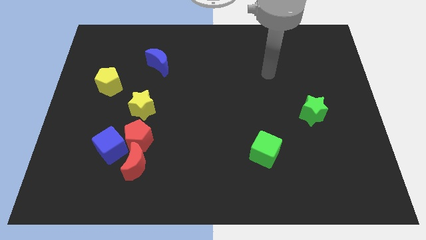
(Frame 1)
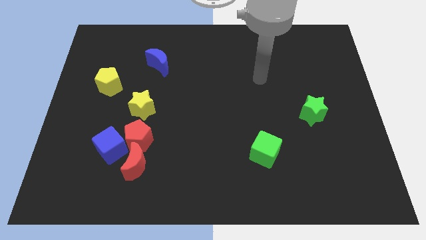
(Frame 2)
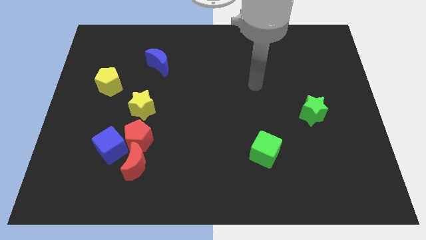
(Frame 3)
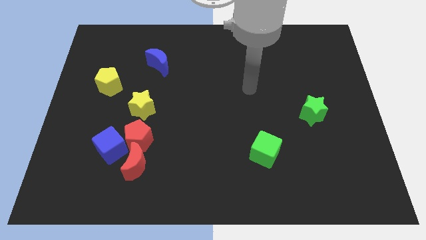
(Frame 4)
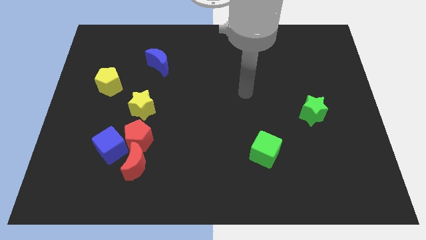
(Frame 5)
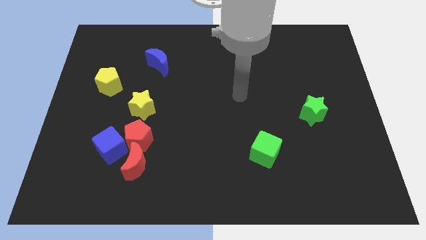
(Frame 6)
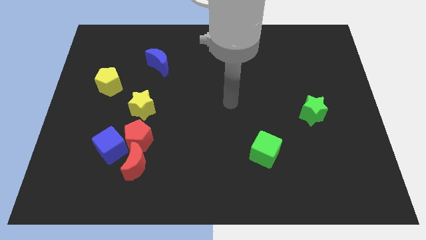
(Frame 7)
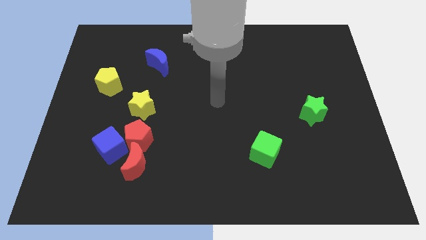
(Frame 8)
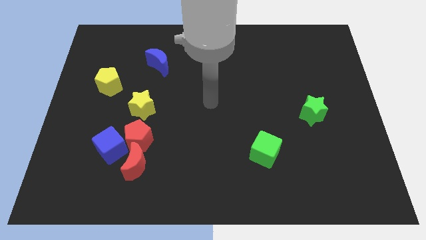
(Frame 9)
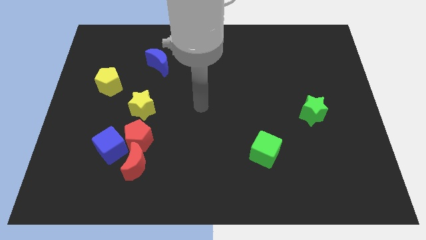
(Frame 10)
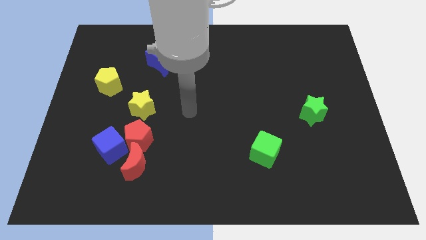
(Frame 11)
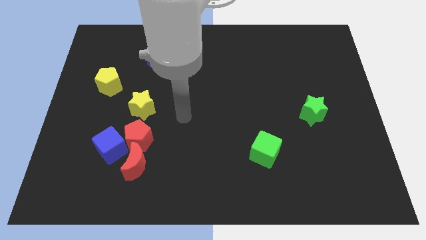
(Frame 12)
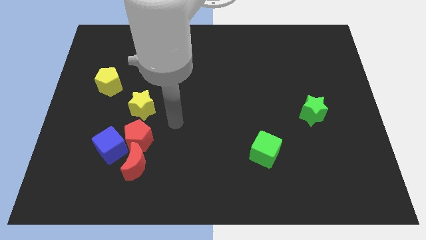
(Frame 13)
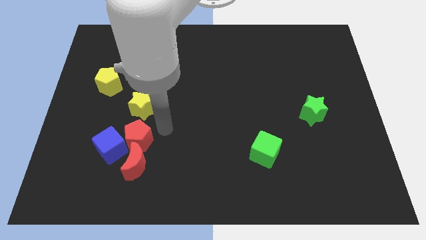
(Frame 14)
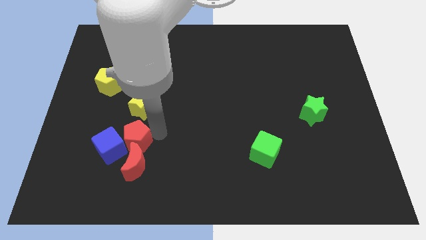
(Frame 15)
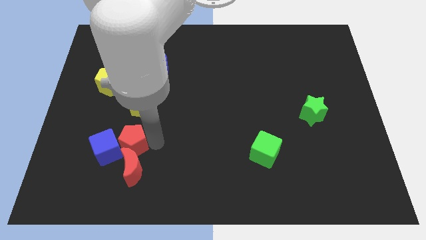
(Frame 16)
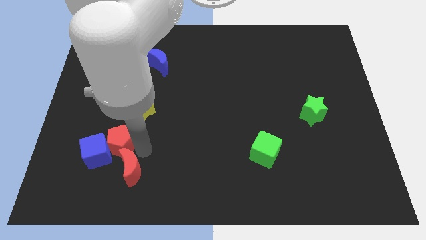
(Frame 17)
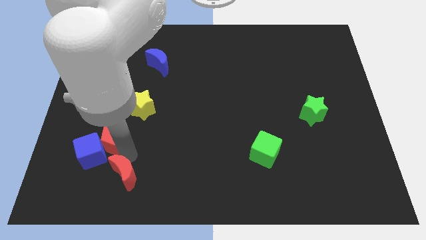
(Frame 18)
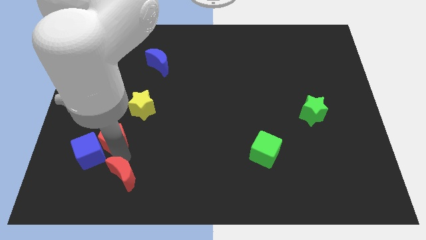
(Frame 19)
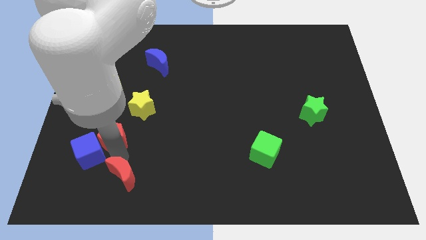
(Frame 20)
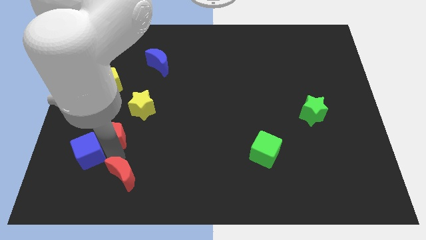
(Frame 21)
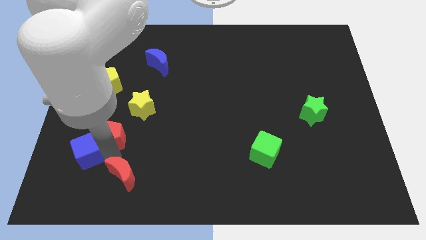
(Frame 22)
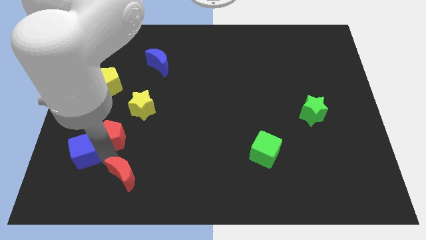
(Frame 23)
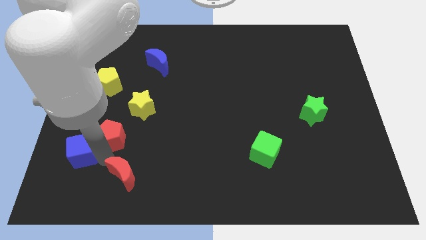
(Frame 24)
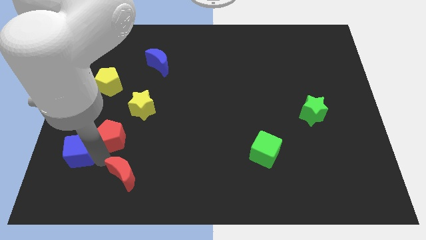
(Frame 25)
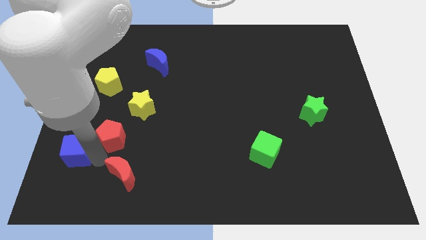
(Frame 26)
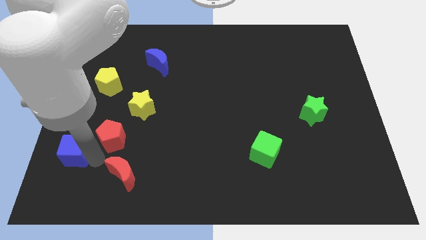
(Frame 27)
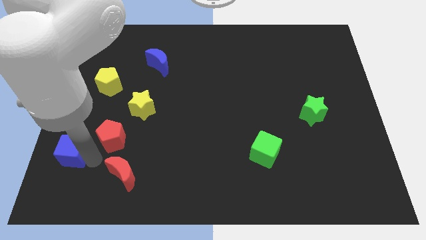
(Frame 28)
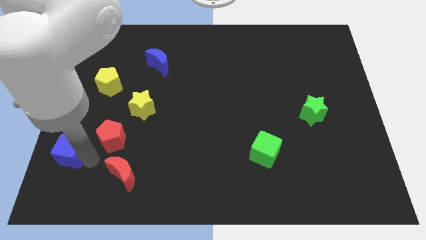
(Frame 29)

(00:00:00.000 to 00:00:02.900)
move the blue cube away from the red pentagon and red moon

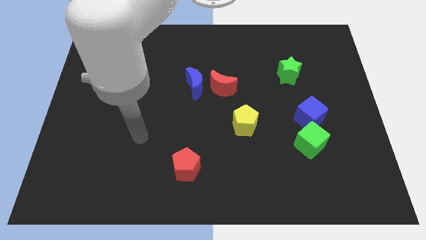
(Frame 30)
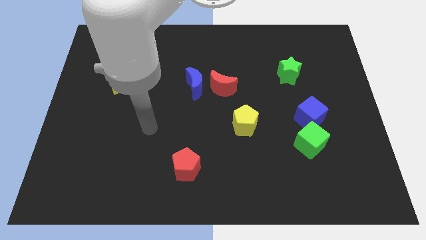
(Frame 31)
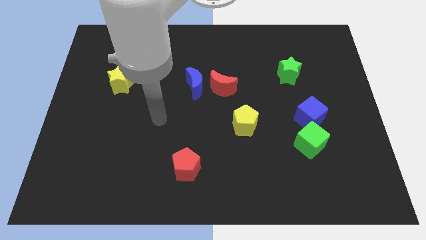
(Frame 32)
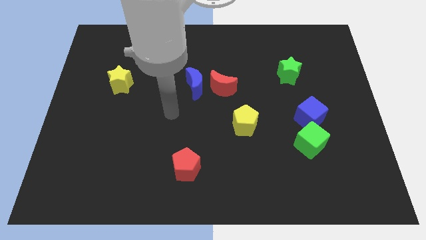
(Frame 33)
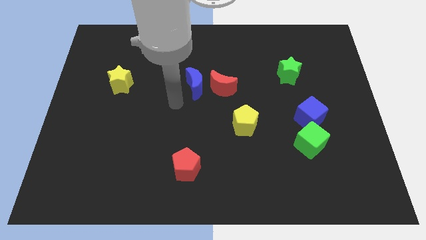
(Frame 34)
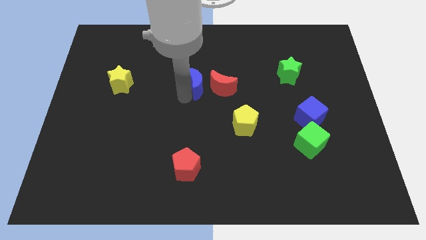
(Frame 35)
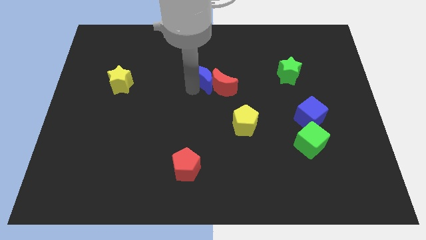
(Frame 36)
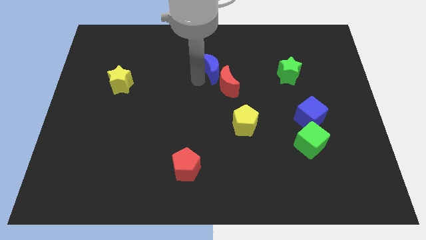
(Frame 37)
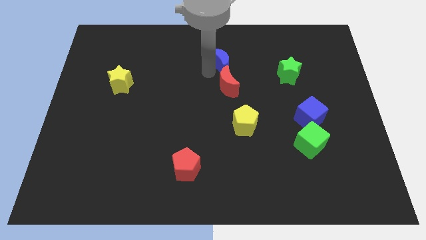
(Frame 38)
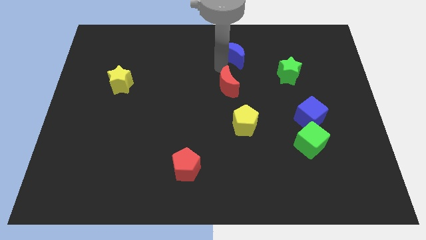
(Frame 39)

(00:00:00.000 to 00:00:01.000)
separate the red moon from the blue moon

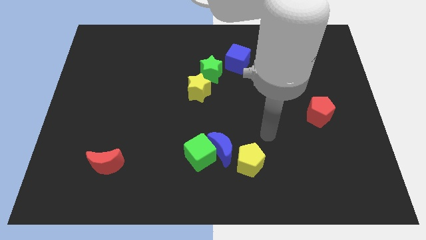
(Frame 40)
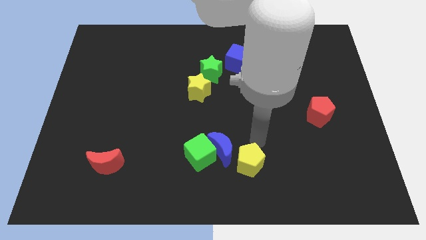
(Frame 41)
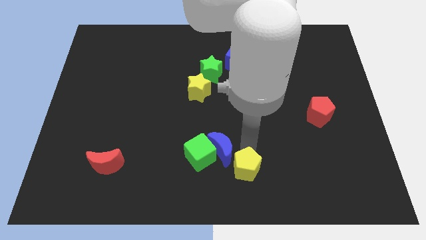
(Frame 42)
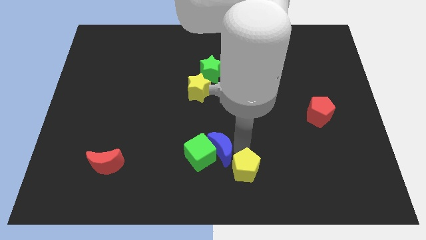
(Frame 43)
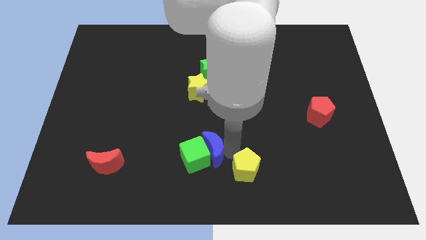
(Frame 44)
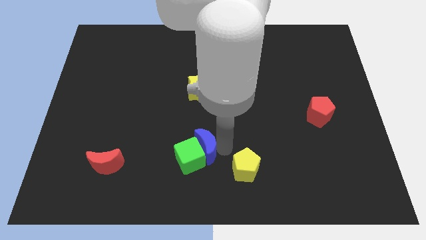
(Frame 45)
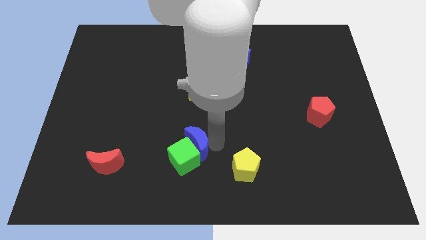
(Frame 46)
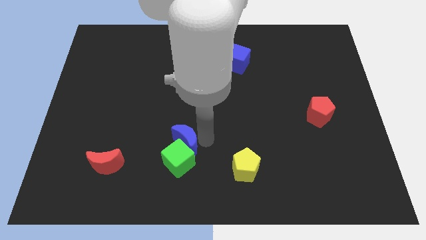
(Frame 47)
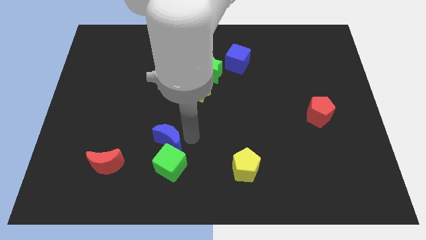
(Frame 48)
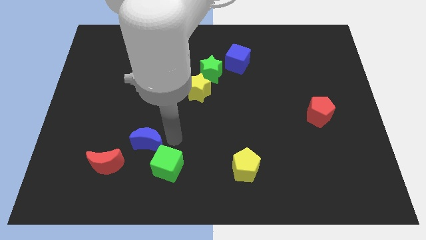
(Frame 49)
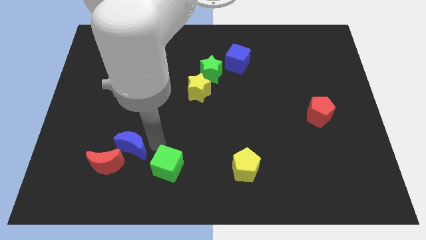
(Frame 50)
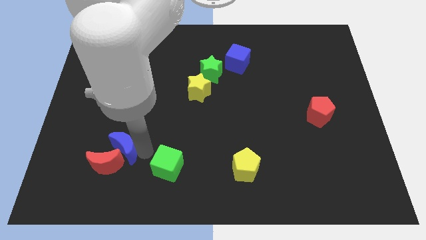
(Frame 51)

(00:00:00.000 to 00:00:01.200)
separate the green cube from the blue moon

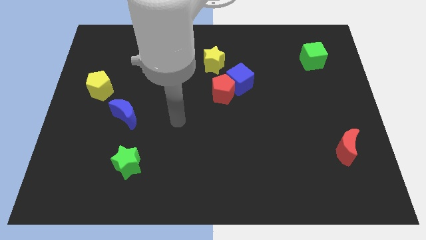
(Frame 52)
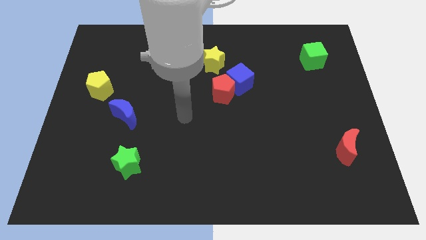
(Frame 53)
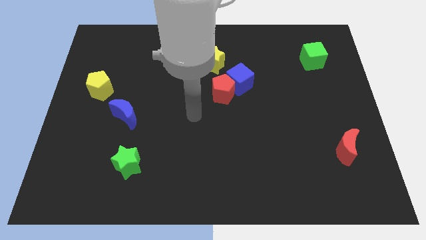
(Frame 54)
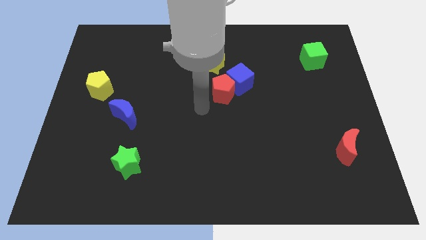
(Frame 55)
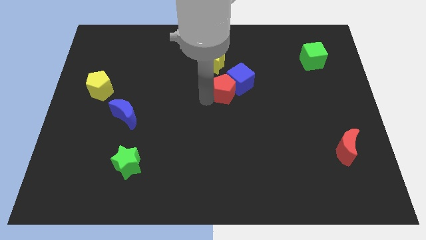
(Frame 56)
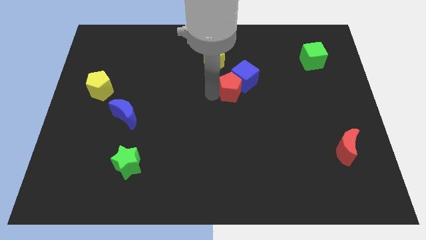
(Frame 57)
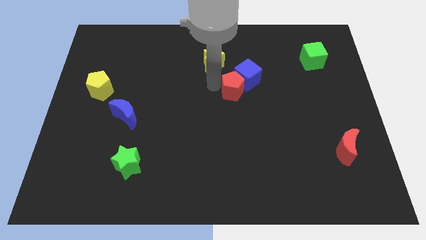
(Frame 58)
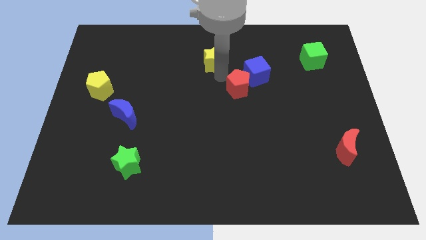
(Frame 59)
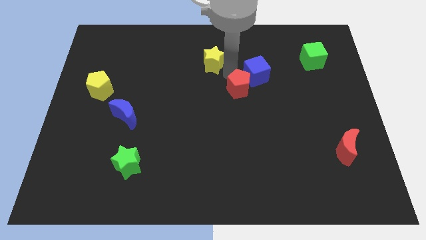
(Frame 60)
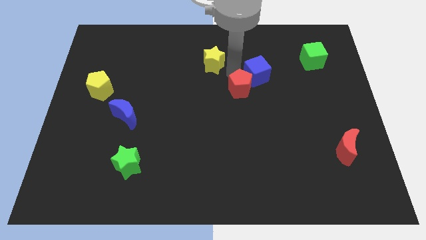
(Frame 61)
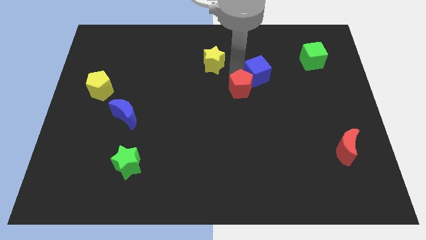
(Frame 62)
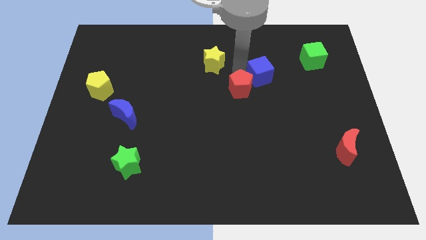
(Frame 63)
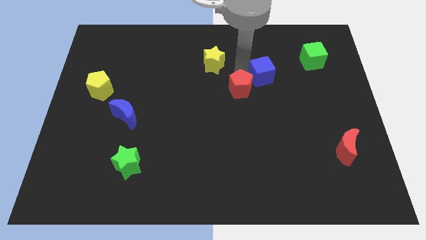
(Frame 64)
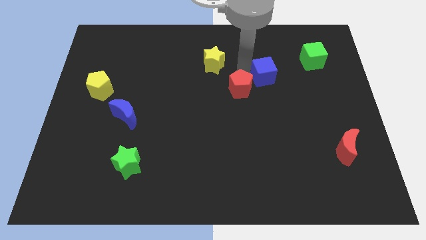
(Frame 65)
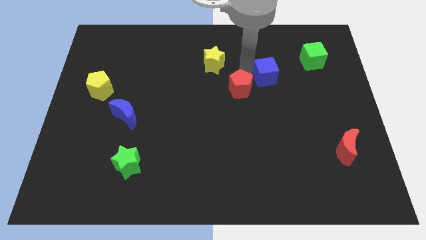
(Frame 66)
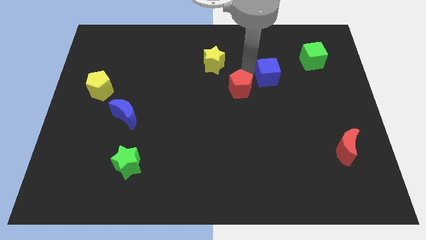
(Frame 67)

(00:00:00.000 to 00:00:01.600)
move the blue cube away from the red pentagon and yellow star

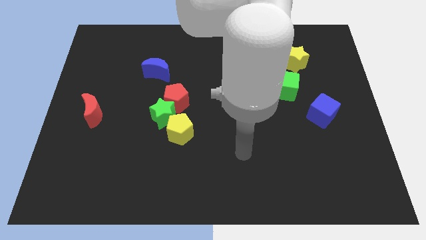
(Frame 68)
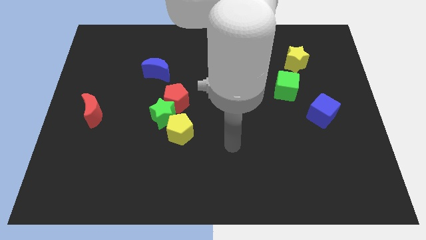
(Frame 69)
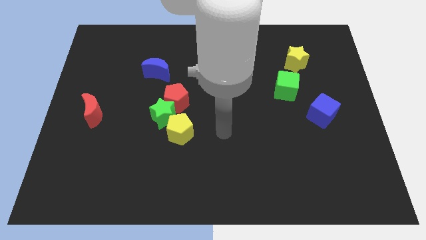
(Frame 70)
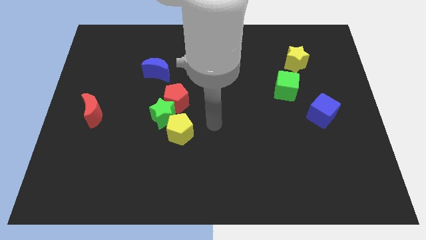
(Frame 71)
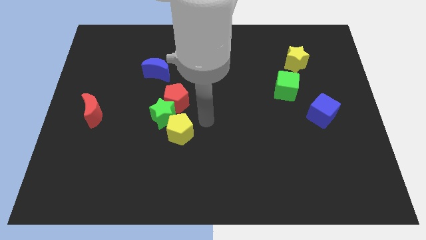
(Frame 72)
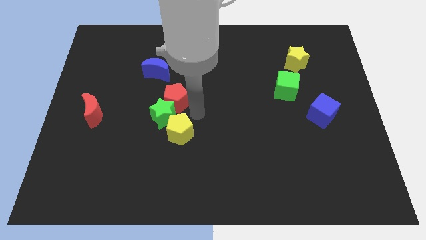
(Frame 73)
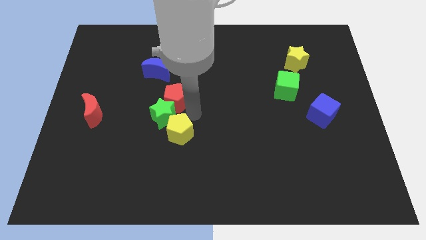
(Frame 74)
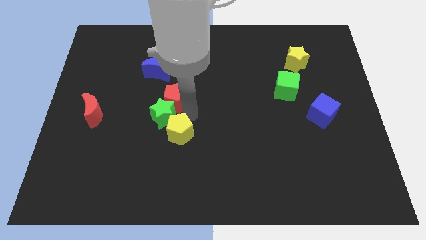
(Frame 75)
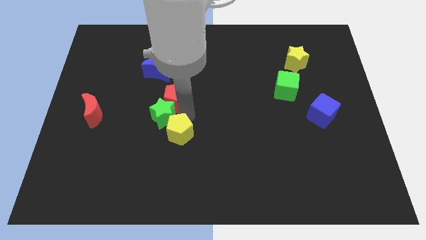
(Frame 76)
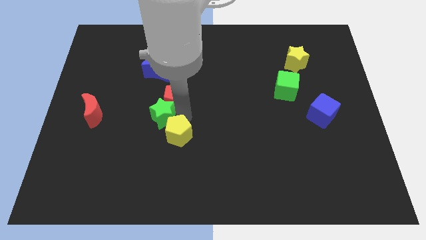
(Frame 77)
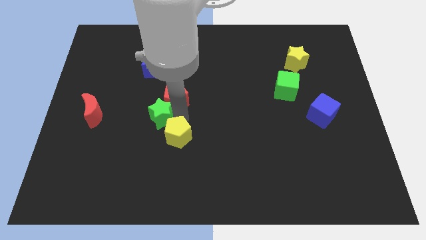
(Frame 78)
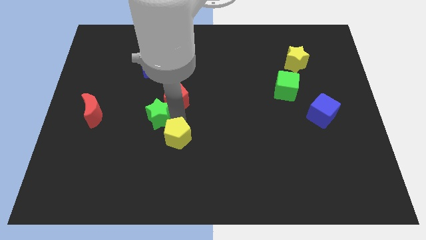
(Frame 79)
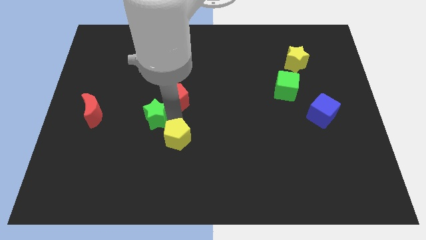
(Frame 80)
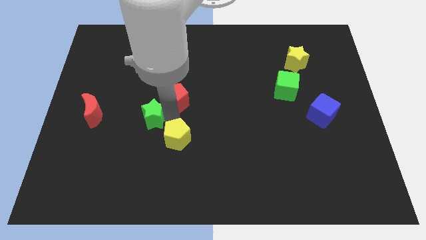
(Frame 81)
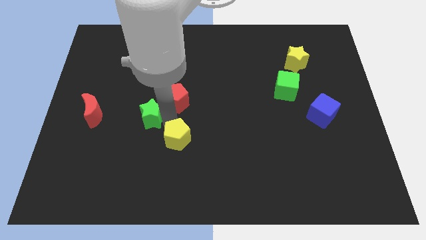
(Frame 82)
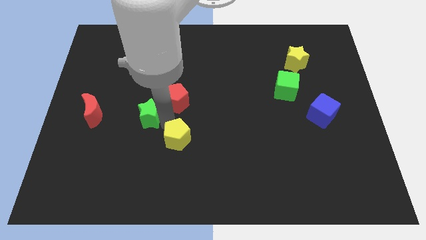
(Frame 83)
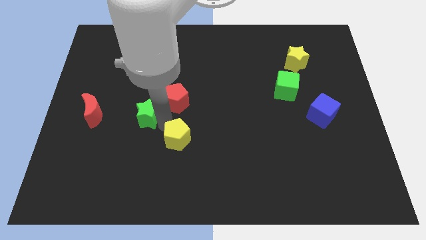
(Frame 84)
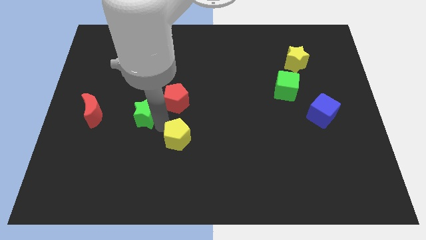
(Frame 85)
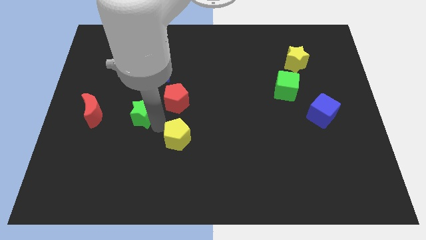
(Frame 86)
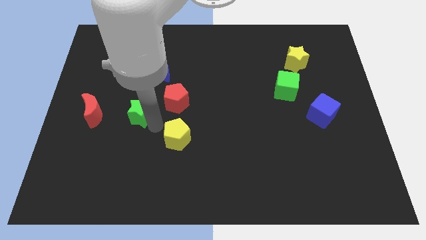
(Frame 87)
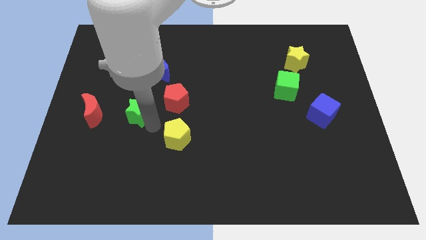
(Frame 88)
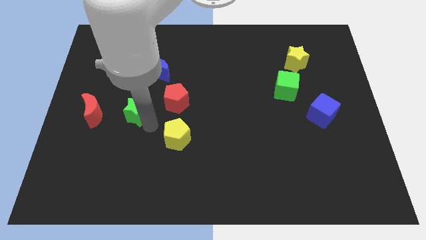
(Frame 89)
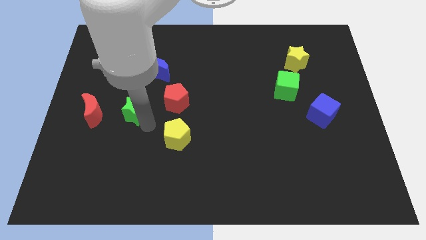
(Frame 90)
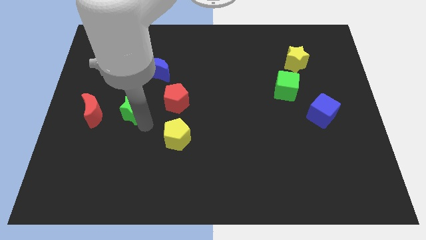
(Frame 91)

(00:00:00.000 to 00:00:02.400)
separate the green star from the red pentagon and yellow pentagon

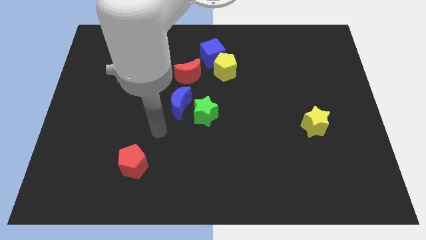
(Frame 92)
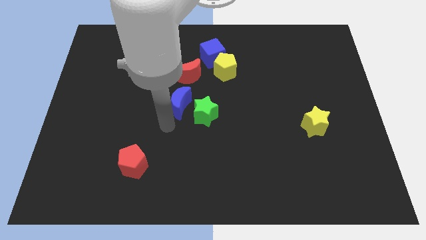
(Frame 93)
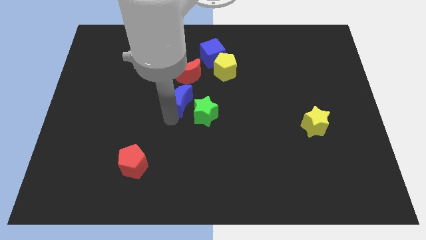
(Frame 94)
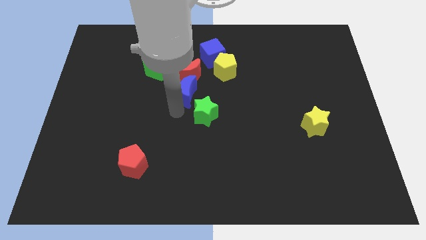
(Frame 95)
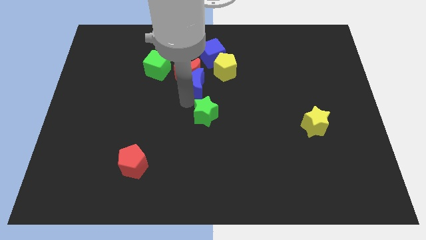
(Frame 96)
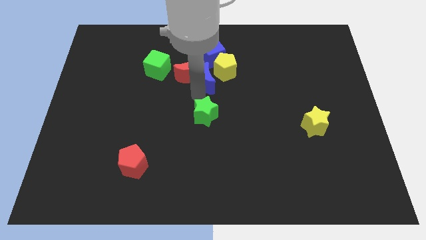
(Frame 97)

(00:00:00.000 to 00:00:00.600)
move the green star away from the blue moon
